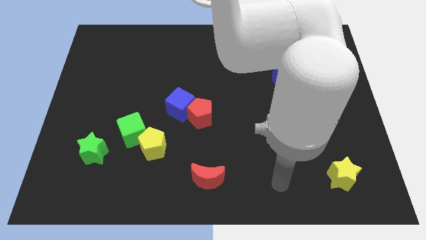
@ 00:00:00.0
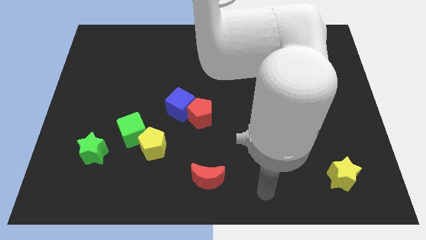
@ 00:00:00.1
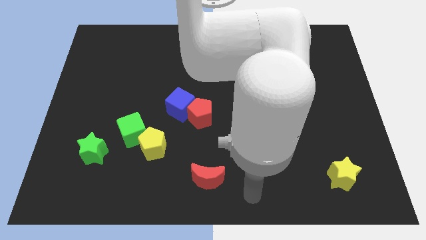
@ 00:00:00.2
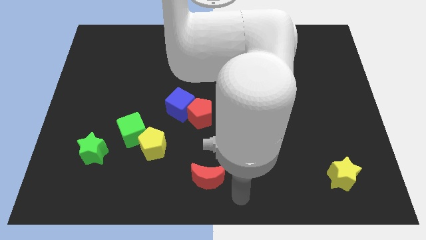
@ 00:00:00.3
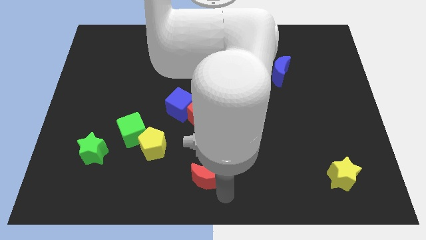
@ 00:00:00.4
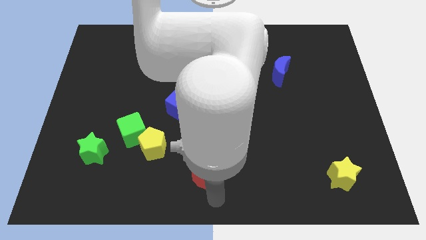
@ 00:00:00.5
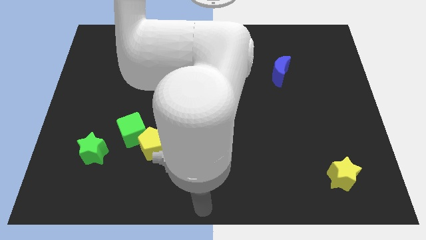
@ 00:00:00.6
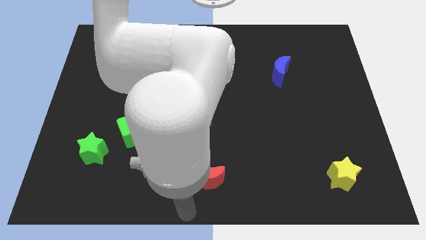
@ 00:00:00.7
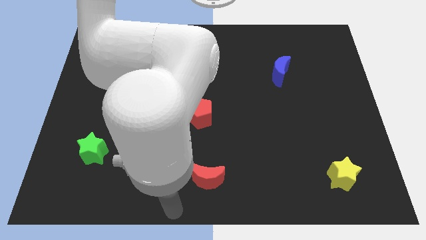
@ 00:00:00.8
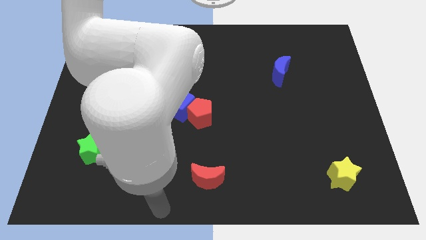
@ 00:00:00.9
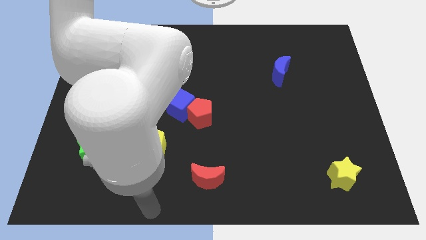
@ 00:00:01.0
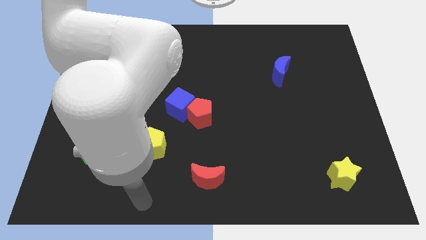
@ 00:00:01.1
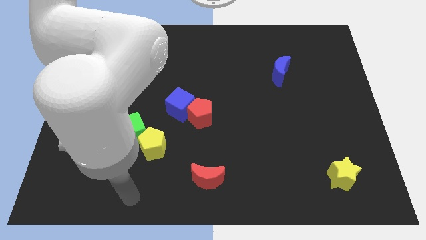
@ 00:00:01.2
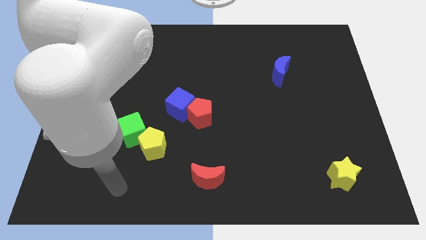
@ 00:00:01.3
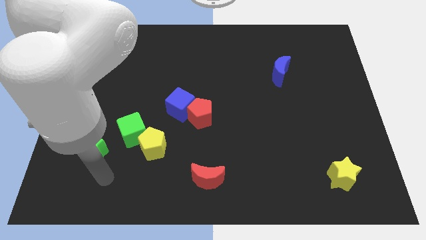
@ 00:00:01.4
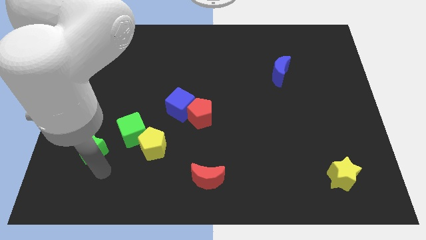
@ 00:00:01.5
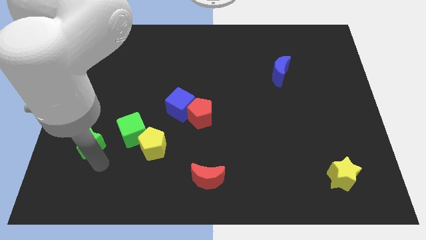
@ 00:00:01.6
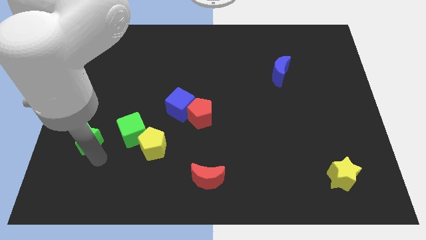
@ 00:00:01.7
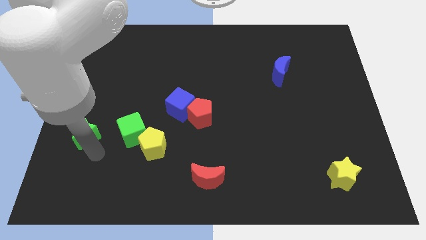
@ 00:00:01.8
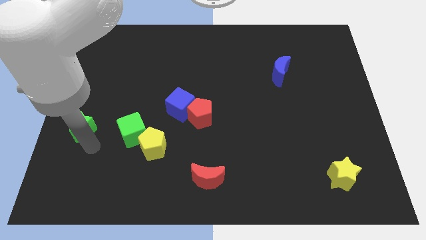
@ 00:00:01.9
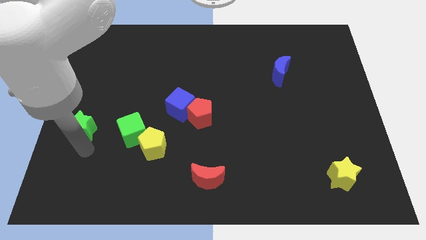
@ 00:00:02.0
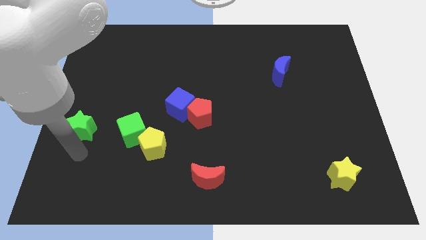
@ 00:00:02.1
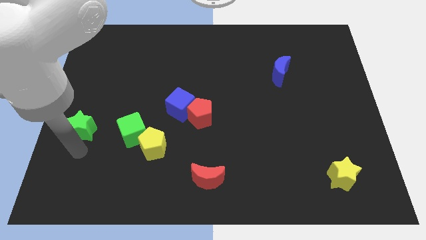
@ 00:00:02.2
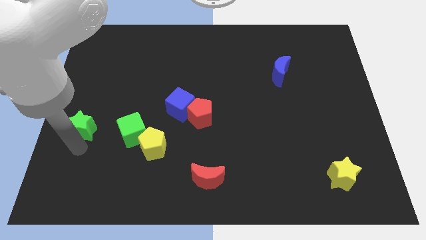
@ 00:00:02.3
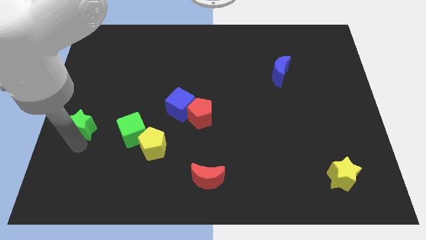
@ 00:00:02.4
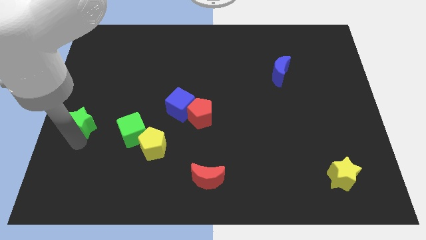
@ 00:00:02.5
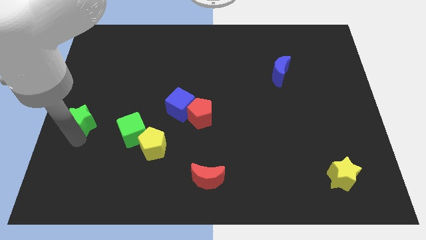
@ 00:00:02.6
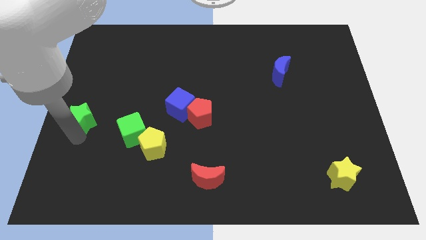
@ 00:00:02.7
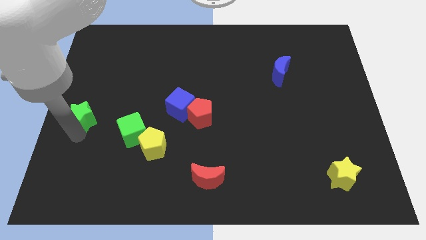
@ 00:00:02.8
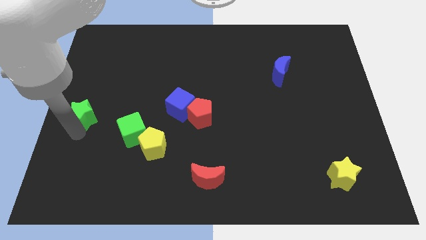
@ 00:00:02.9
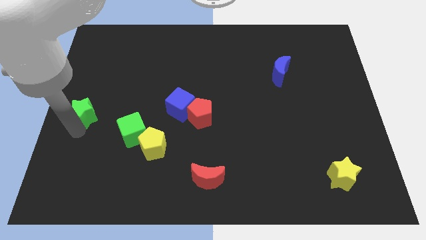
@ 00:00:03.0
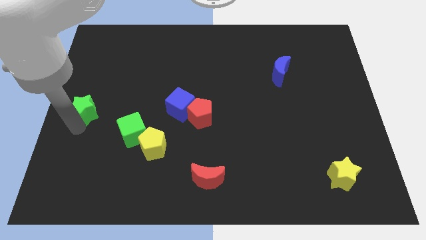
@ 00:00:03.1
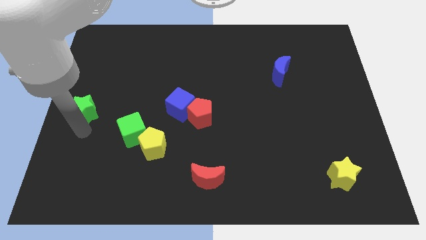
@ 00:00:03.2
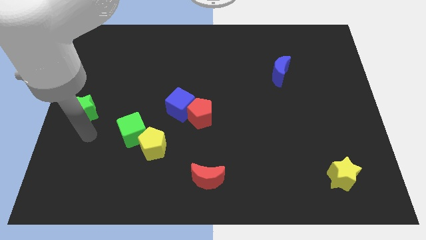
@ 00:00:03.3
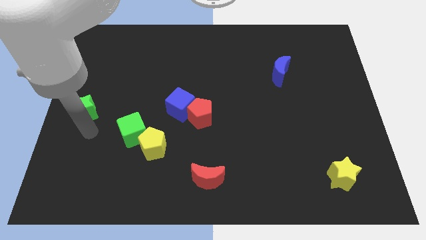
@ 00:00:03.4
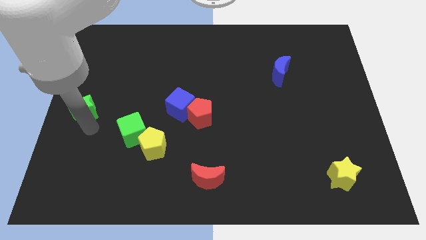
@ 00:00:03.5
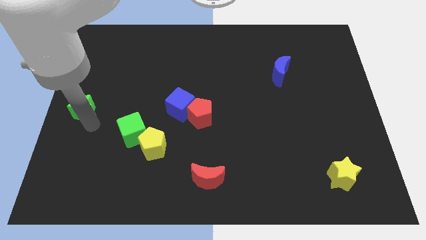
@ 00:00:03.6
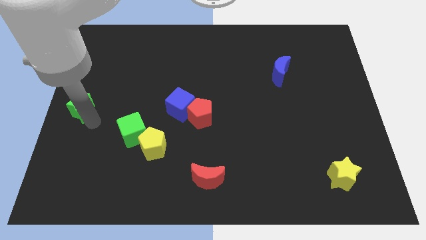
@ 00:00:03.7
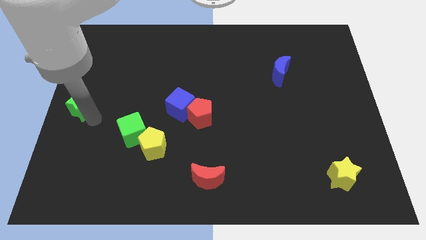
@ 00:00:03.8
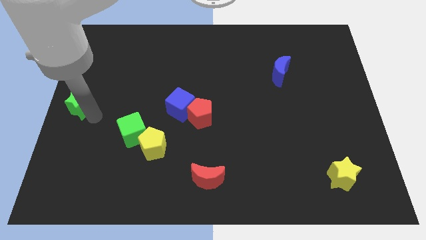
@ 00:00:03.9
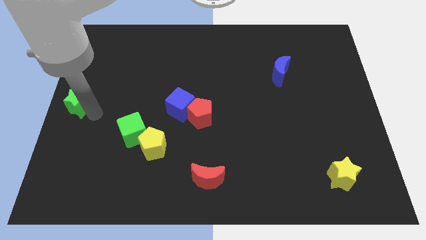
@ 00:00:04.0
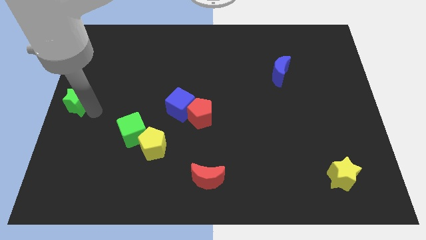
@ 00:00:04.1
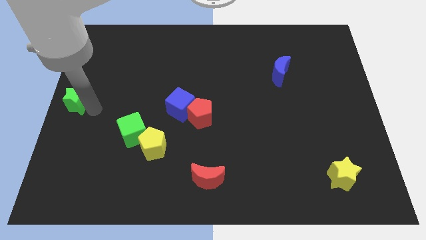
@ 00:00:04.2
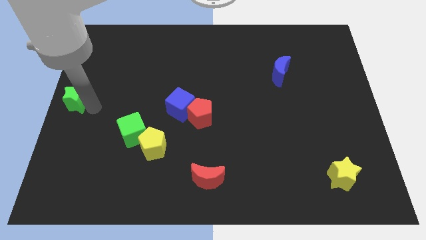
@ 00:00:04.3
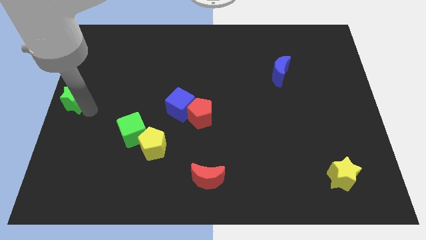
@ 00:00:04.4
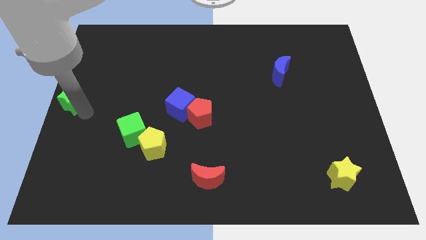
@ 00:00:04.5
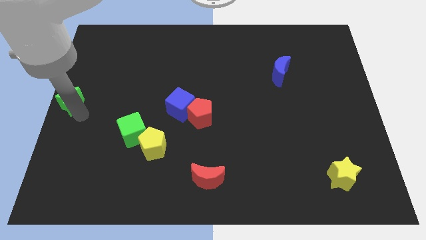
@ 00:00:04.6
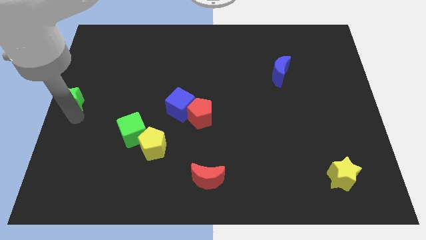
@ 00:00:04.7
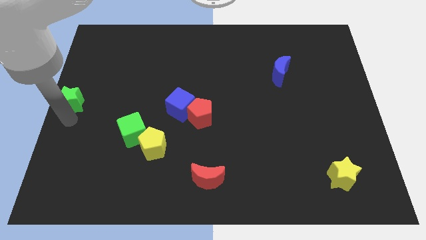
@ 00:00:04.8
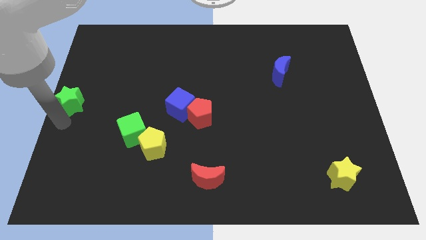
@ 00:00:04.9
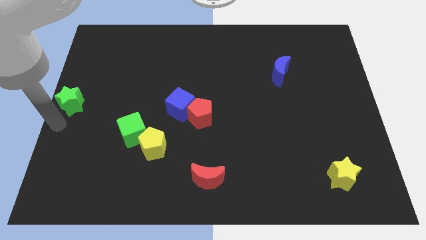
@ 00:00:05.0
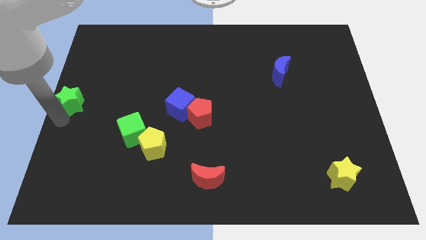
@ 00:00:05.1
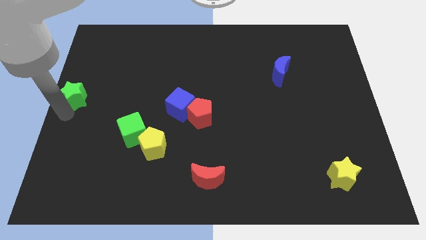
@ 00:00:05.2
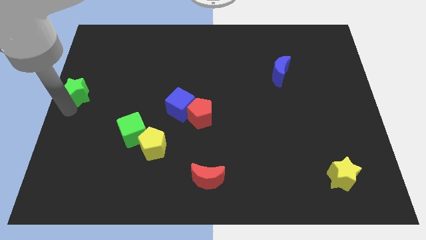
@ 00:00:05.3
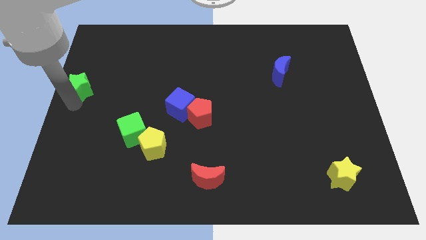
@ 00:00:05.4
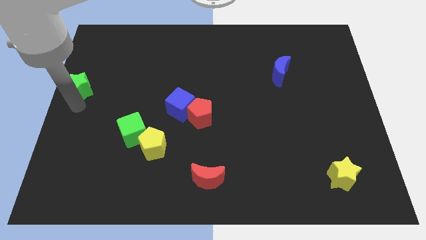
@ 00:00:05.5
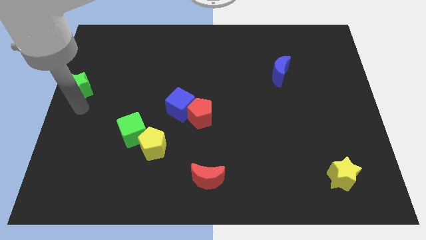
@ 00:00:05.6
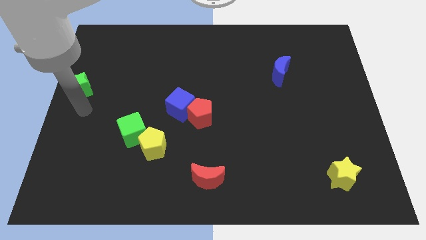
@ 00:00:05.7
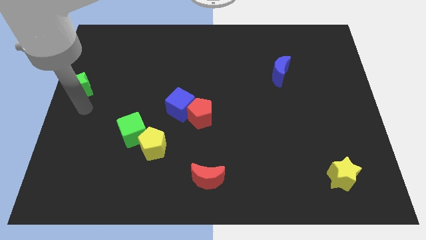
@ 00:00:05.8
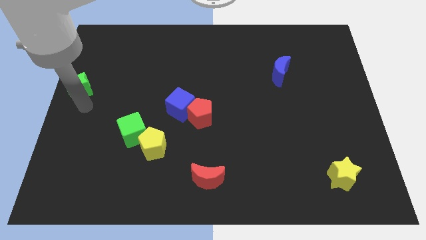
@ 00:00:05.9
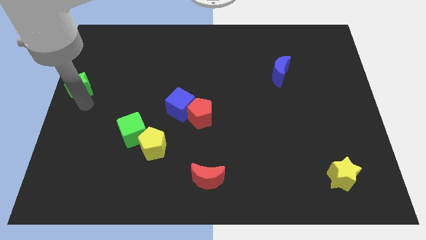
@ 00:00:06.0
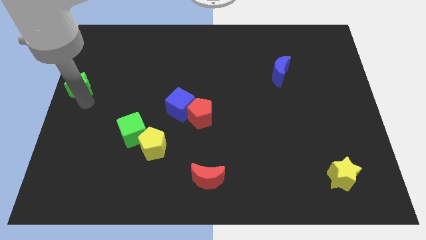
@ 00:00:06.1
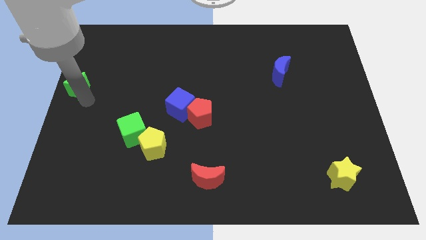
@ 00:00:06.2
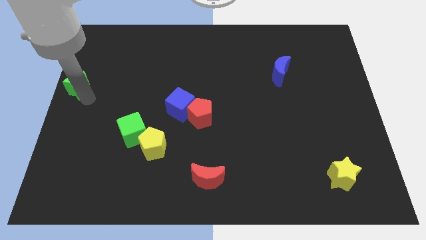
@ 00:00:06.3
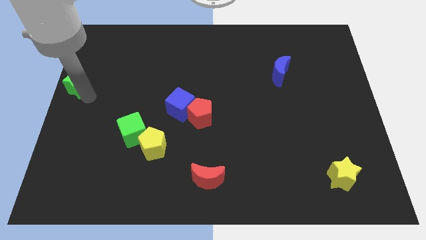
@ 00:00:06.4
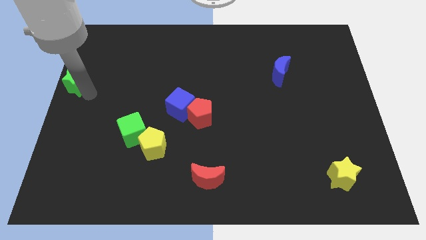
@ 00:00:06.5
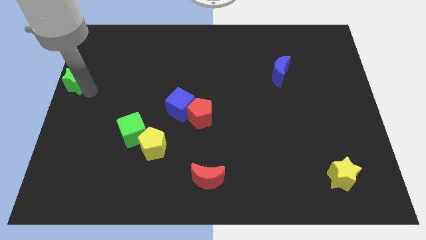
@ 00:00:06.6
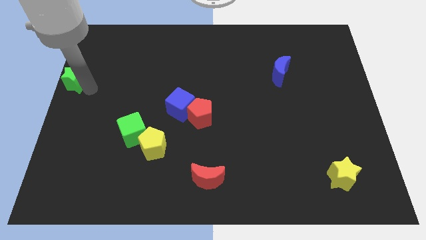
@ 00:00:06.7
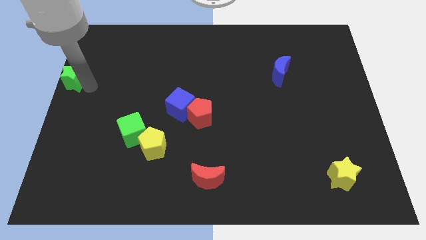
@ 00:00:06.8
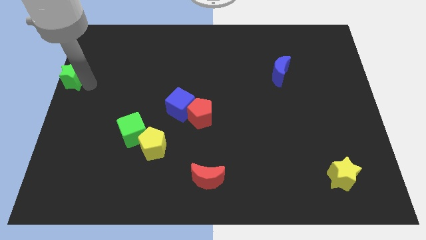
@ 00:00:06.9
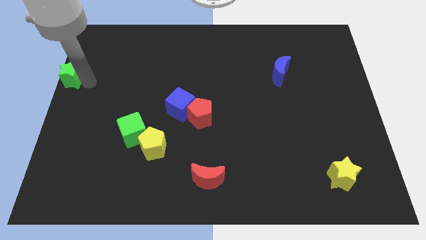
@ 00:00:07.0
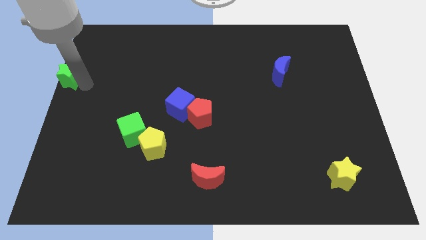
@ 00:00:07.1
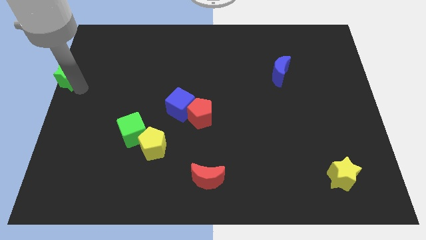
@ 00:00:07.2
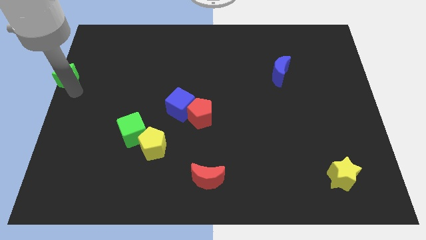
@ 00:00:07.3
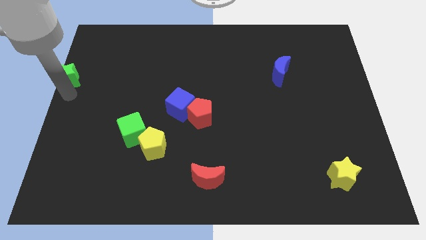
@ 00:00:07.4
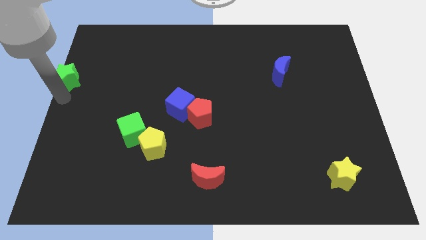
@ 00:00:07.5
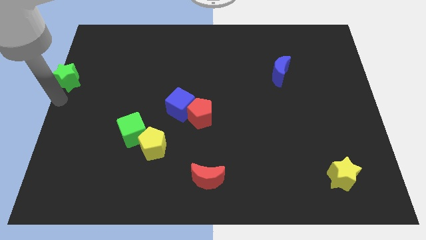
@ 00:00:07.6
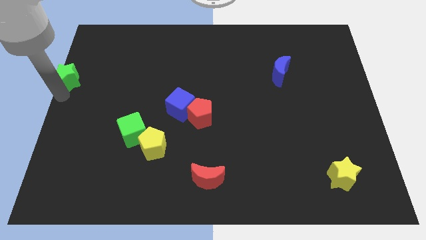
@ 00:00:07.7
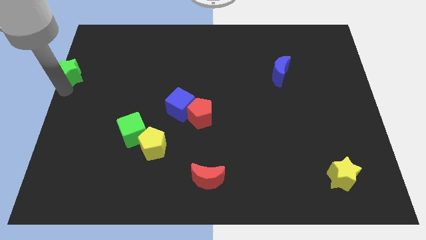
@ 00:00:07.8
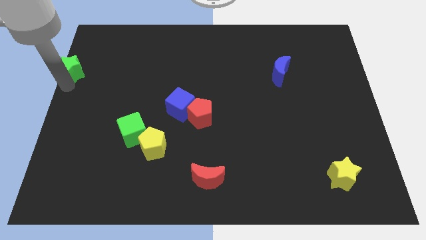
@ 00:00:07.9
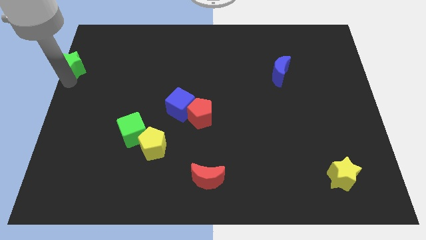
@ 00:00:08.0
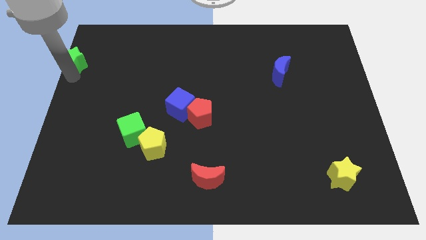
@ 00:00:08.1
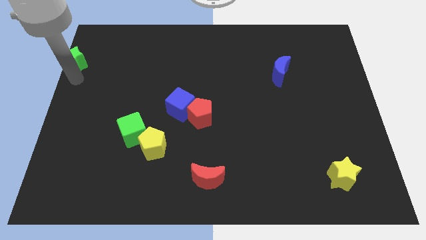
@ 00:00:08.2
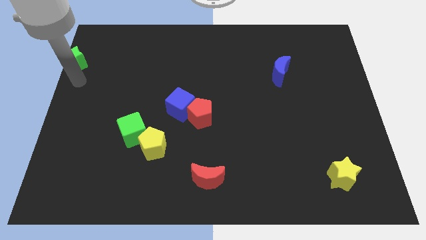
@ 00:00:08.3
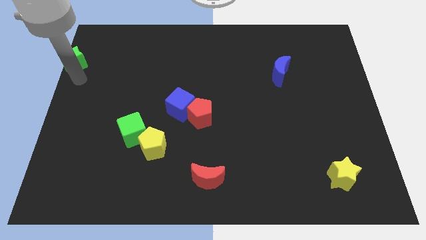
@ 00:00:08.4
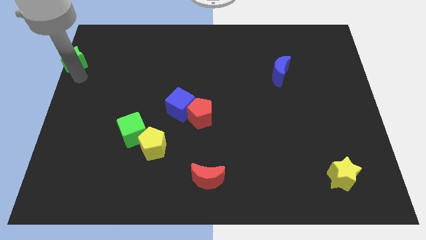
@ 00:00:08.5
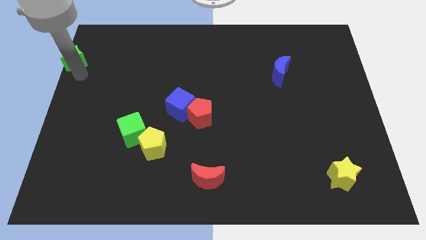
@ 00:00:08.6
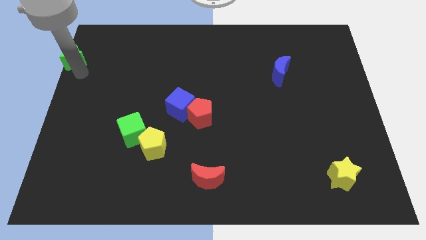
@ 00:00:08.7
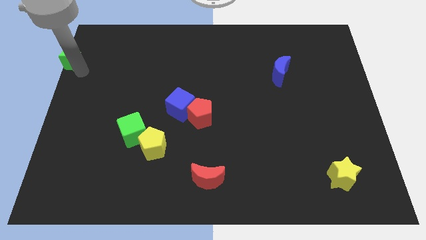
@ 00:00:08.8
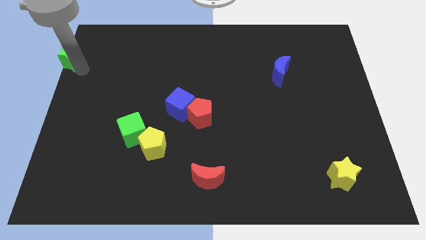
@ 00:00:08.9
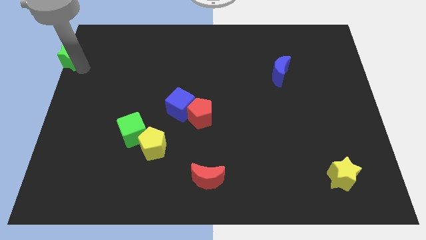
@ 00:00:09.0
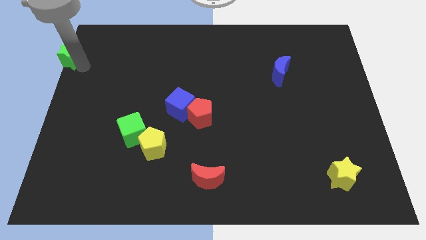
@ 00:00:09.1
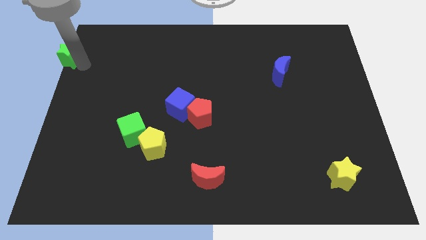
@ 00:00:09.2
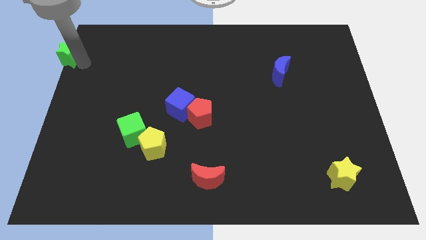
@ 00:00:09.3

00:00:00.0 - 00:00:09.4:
push the green star to the top left of the board
